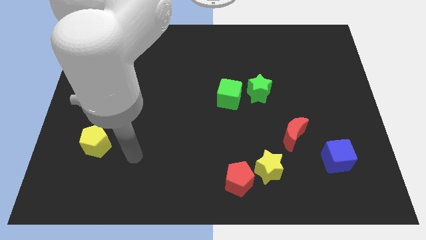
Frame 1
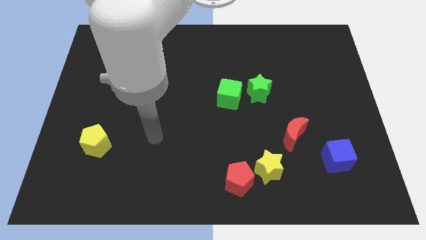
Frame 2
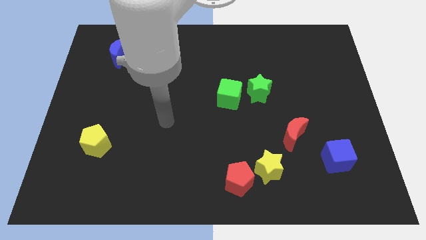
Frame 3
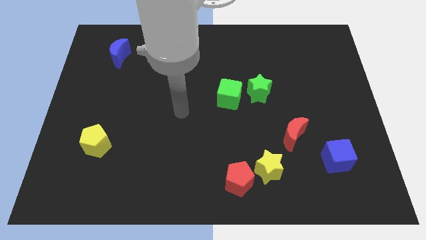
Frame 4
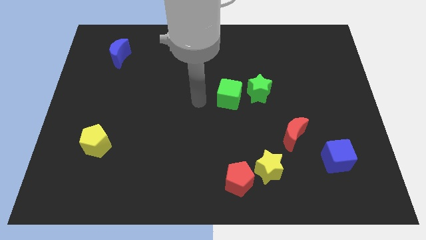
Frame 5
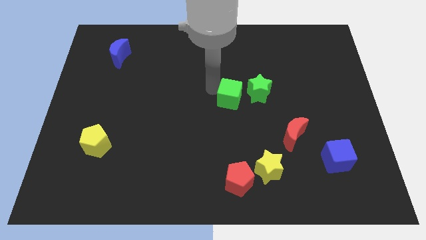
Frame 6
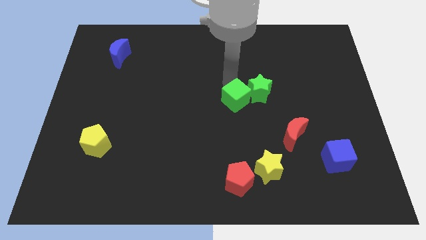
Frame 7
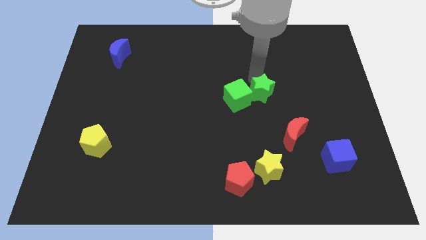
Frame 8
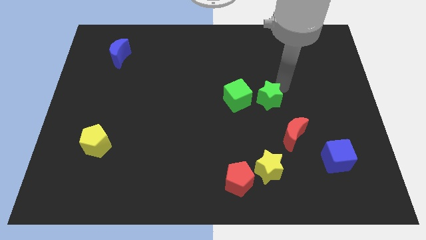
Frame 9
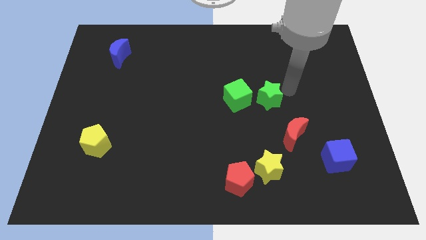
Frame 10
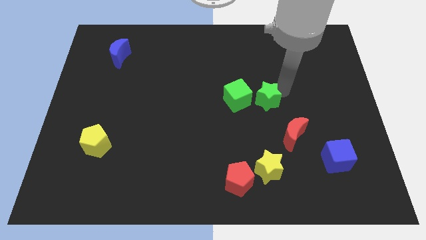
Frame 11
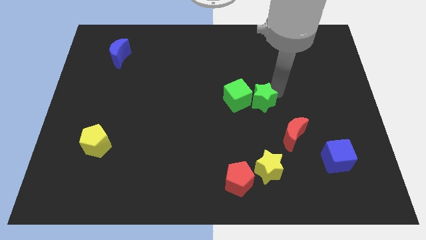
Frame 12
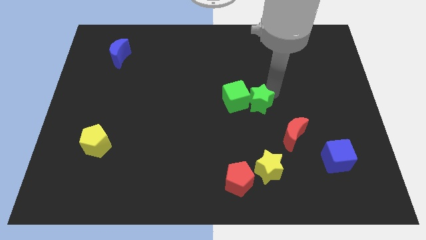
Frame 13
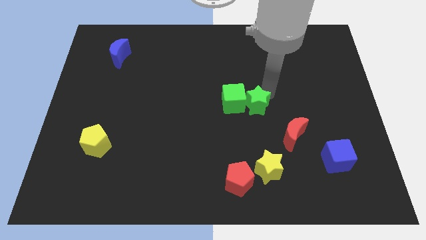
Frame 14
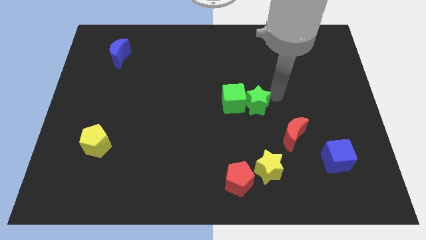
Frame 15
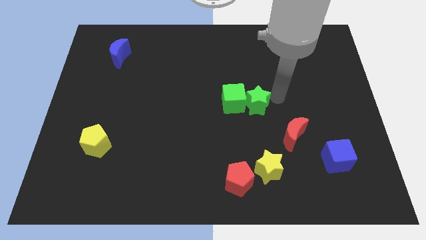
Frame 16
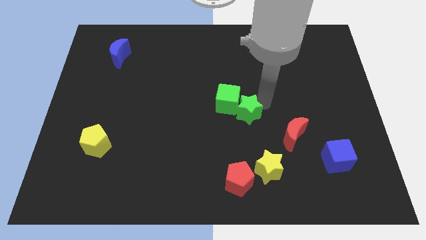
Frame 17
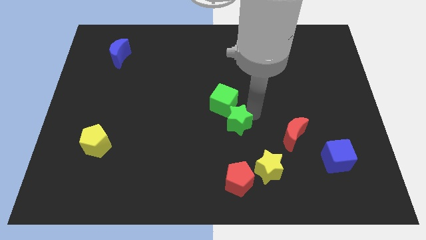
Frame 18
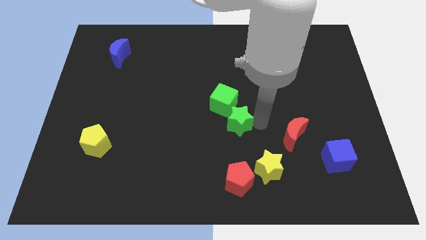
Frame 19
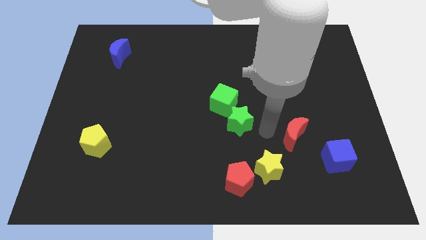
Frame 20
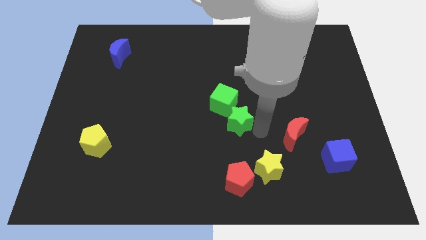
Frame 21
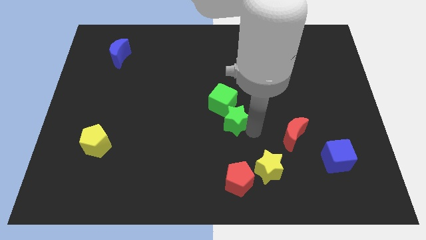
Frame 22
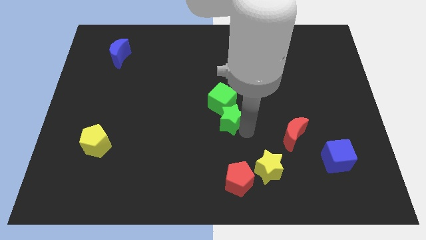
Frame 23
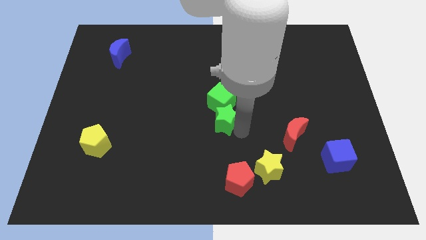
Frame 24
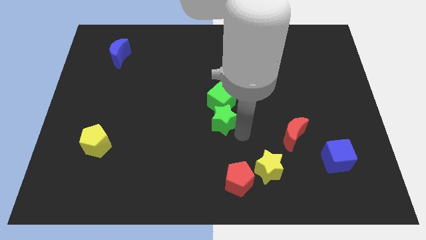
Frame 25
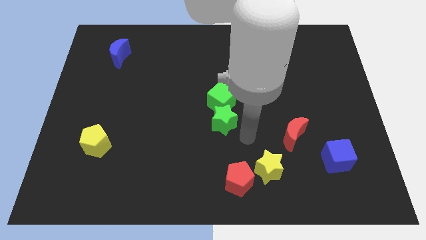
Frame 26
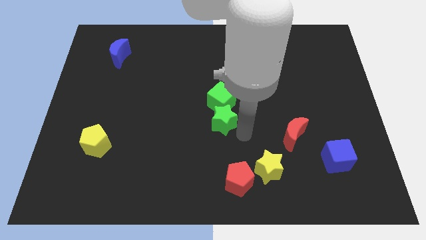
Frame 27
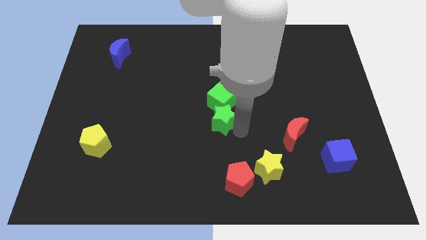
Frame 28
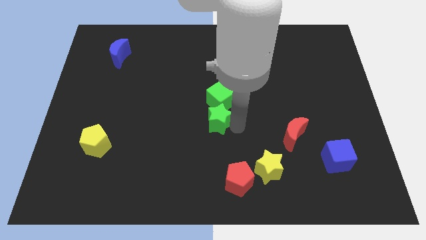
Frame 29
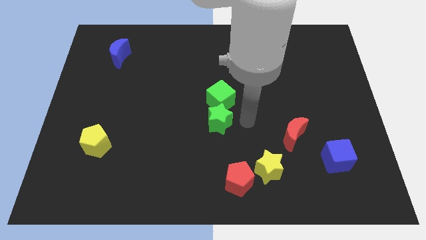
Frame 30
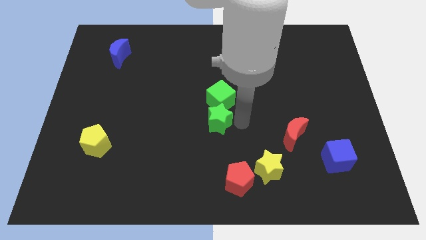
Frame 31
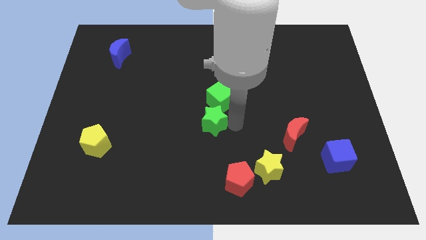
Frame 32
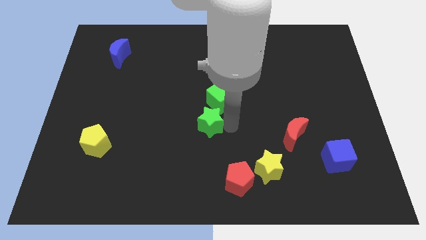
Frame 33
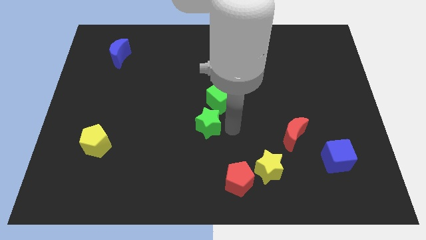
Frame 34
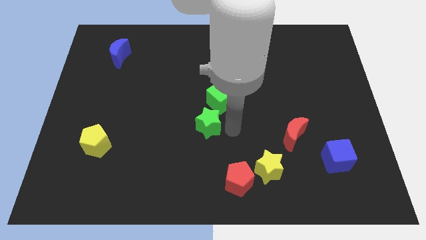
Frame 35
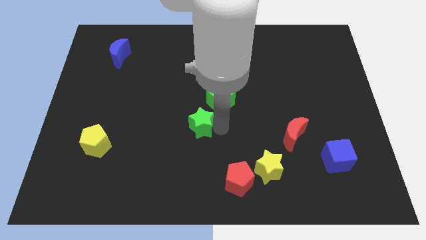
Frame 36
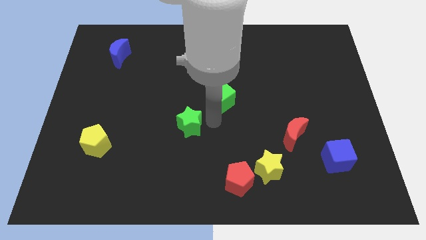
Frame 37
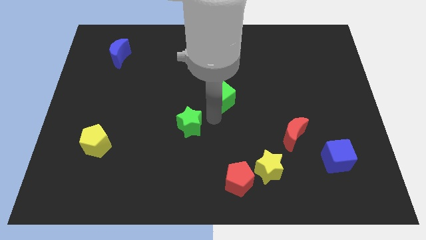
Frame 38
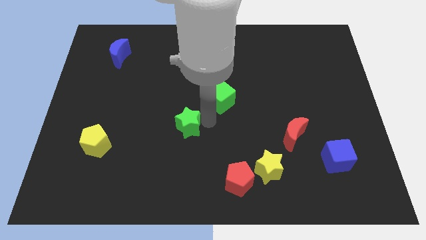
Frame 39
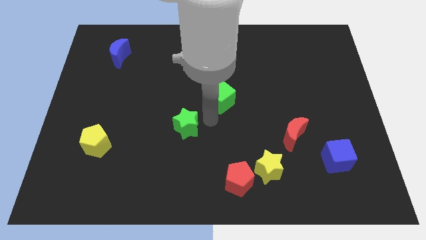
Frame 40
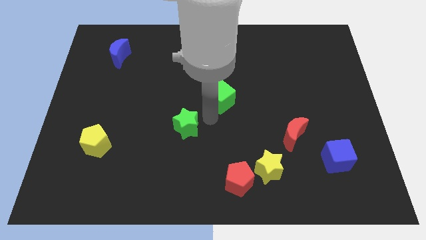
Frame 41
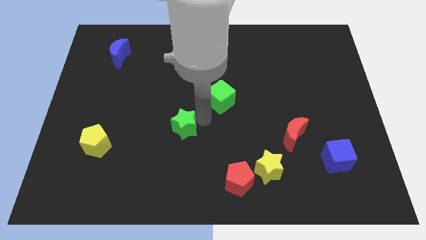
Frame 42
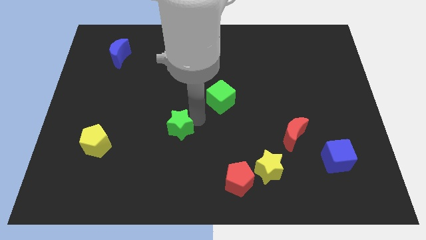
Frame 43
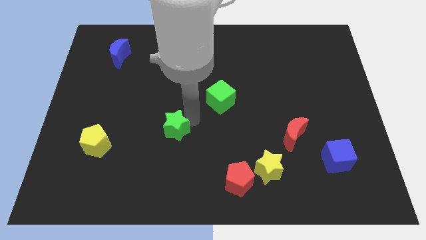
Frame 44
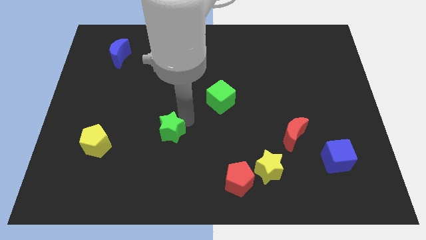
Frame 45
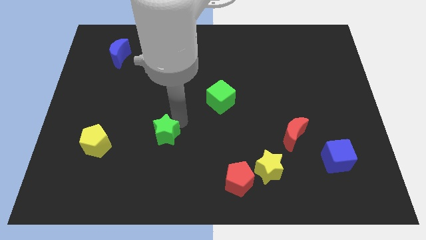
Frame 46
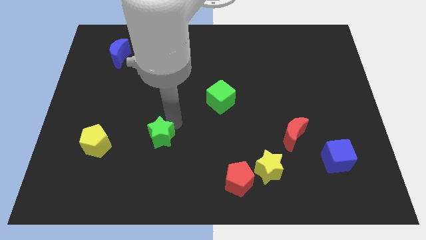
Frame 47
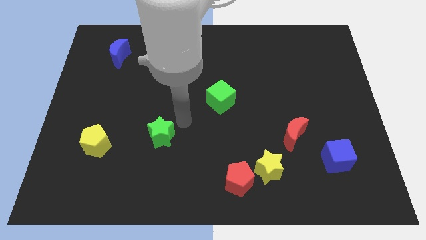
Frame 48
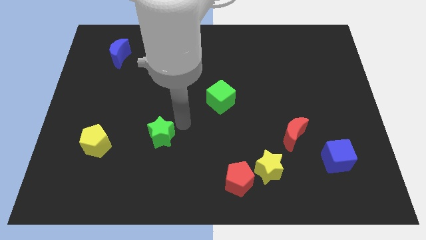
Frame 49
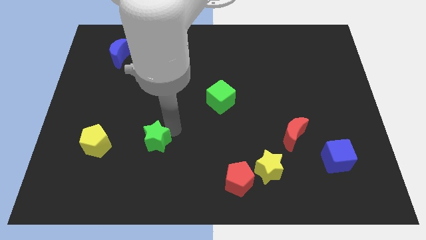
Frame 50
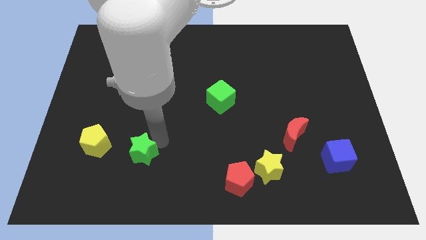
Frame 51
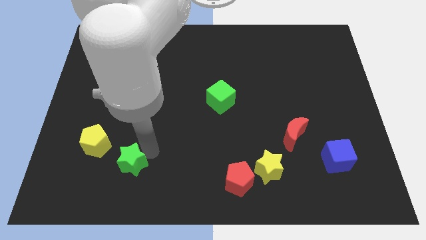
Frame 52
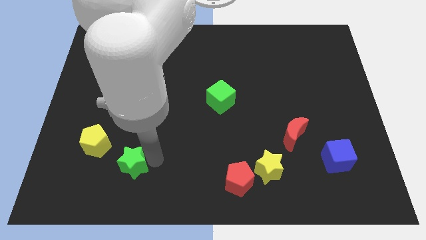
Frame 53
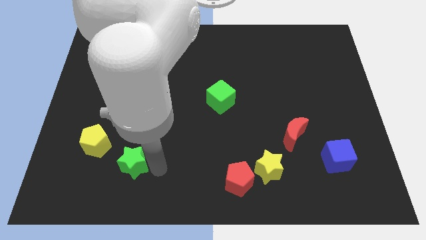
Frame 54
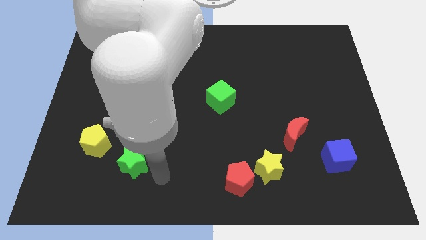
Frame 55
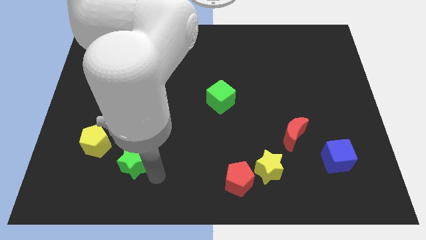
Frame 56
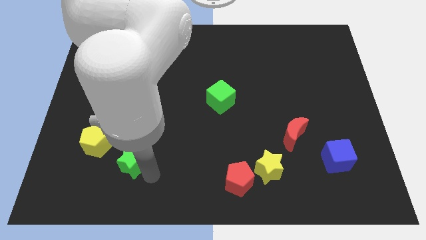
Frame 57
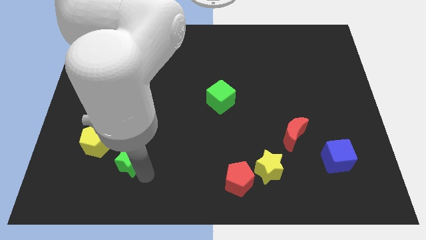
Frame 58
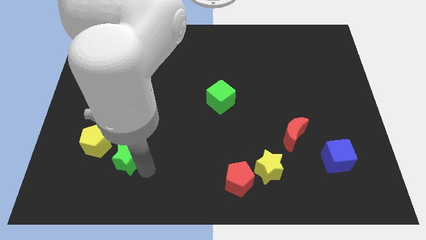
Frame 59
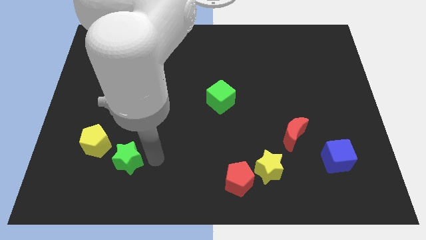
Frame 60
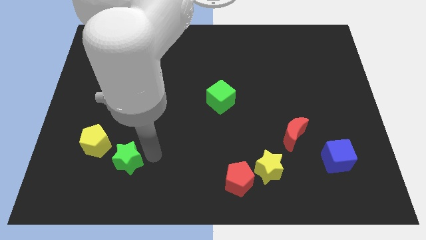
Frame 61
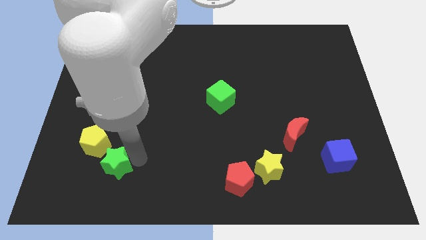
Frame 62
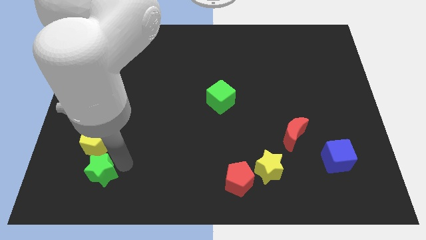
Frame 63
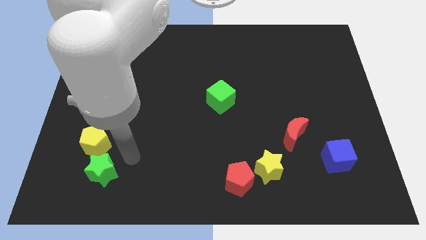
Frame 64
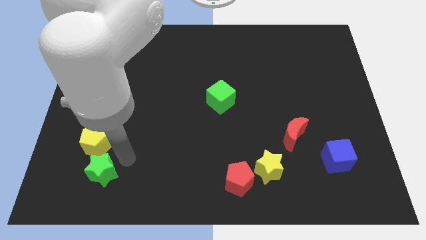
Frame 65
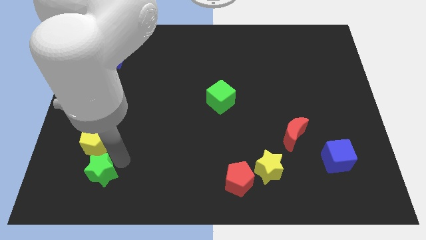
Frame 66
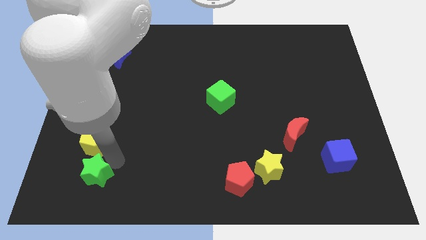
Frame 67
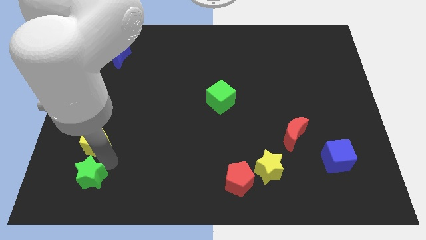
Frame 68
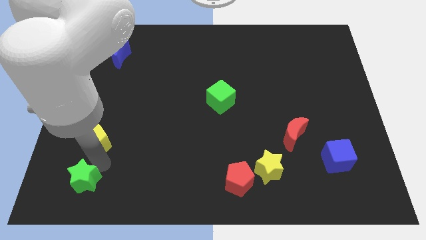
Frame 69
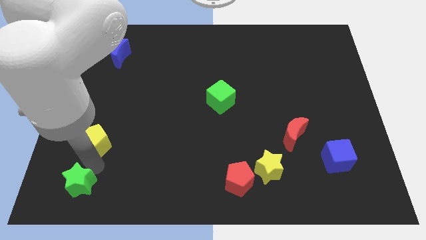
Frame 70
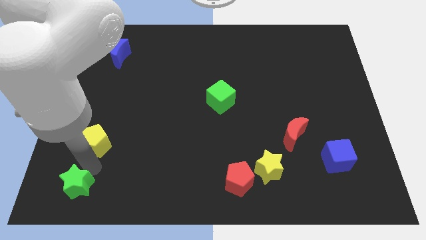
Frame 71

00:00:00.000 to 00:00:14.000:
push the green star to the bottom left of the board
